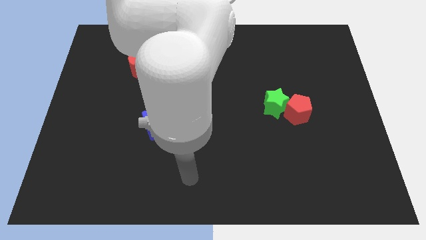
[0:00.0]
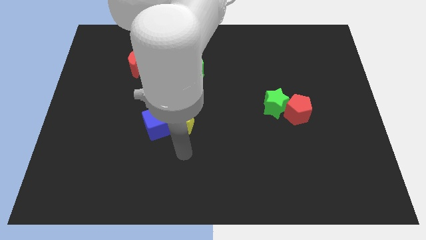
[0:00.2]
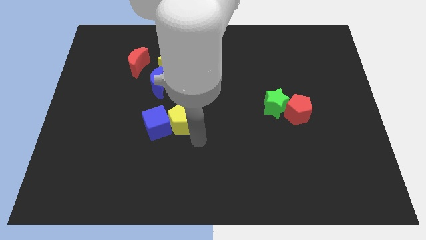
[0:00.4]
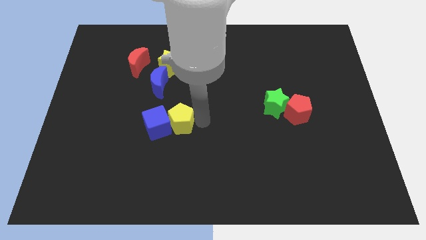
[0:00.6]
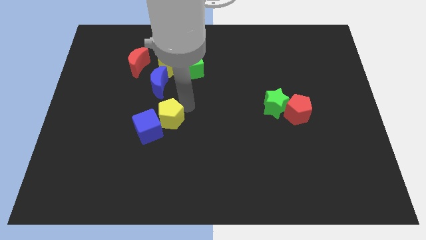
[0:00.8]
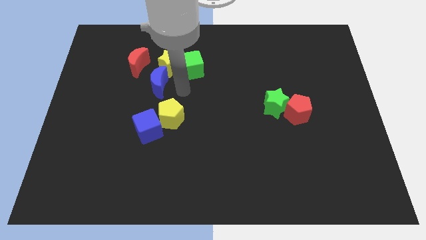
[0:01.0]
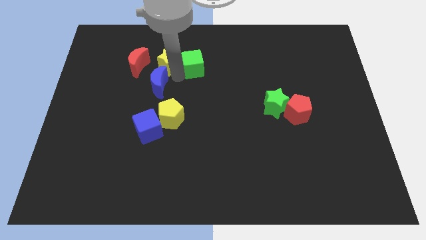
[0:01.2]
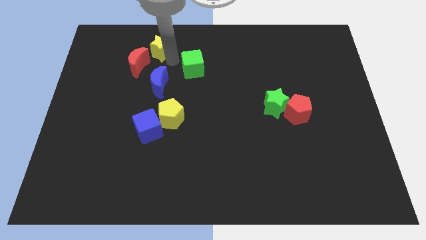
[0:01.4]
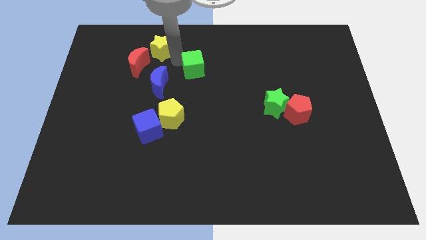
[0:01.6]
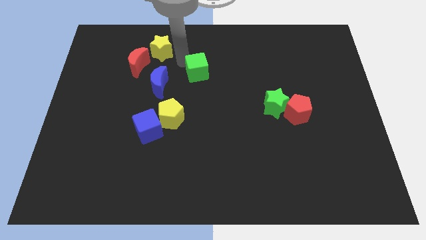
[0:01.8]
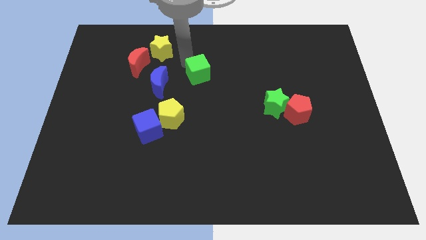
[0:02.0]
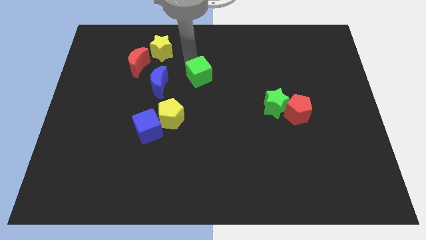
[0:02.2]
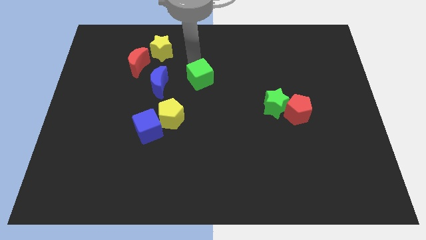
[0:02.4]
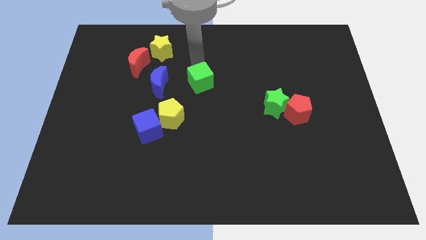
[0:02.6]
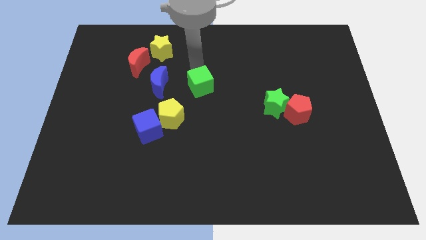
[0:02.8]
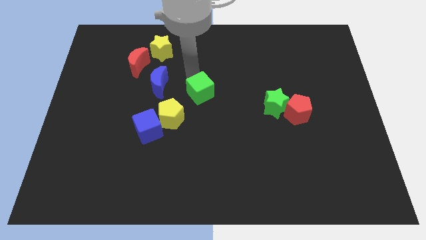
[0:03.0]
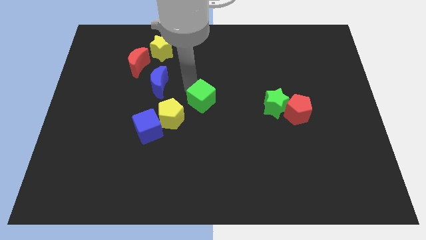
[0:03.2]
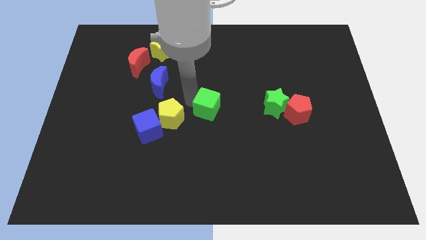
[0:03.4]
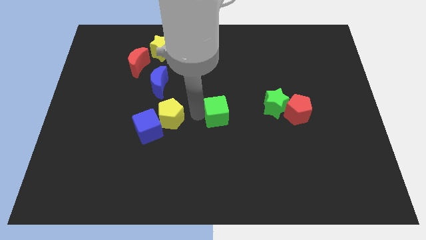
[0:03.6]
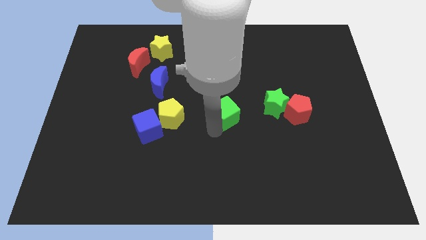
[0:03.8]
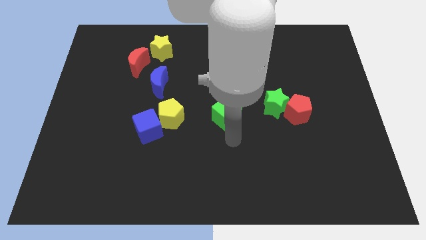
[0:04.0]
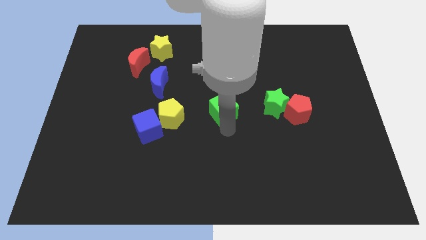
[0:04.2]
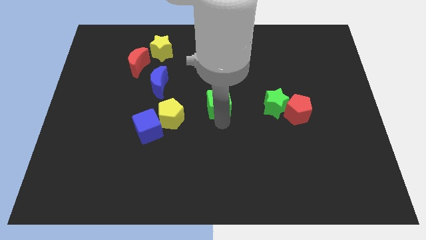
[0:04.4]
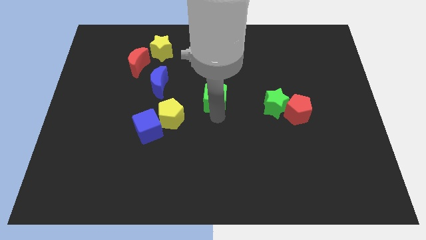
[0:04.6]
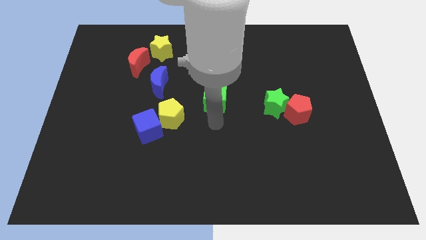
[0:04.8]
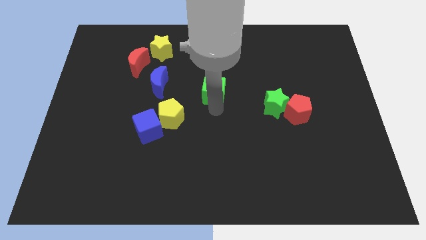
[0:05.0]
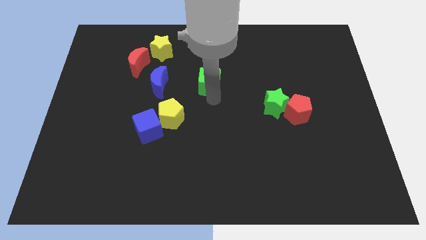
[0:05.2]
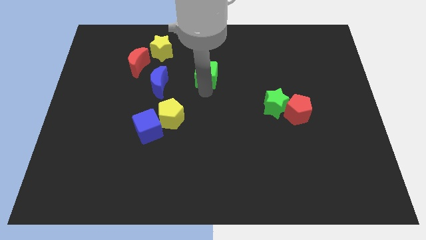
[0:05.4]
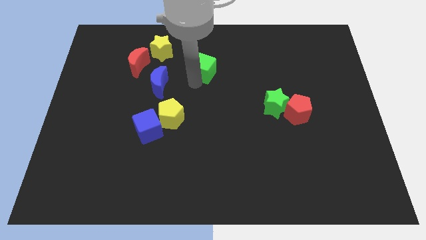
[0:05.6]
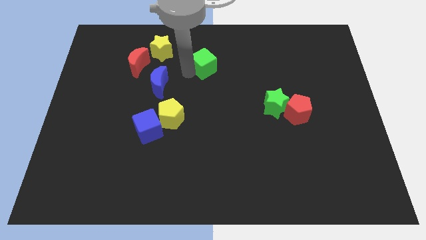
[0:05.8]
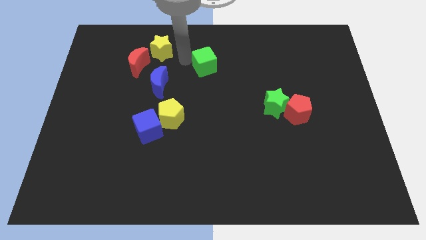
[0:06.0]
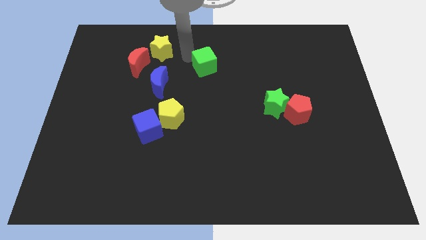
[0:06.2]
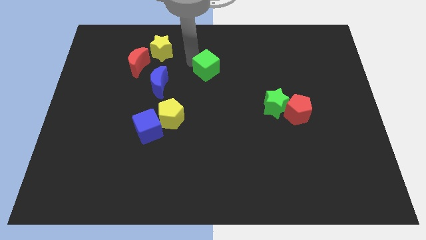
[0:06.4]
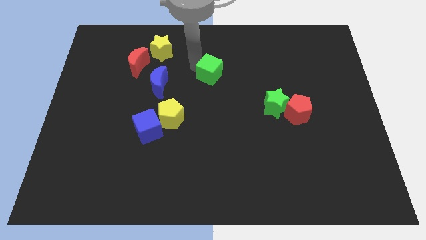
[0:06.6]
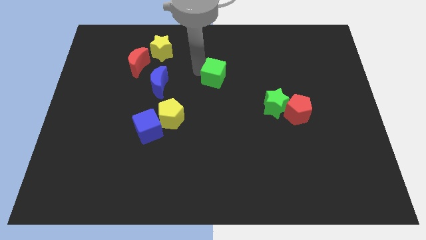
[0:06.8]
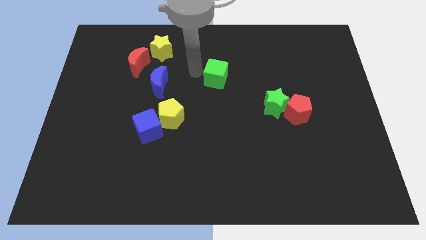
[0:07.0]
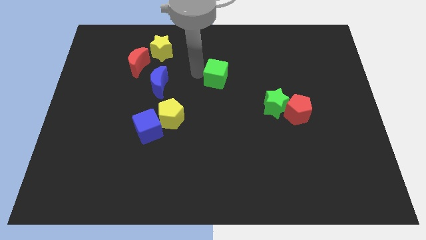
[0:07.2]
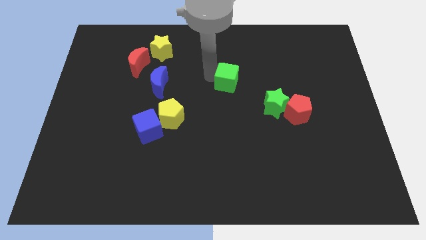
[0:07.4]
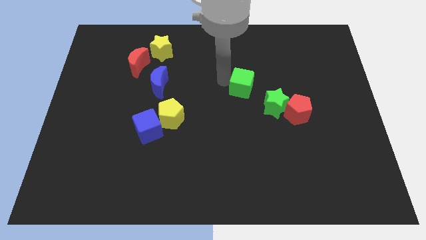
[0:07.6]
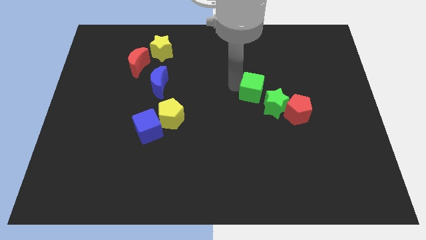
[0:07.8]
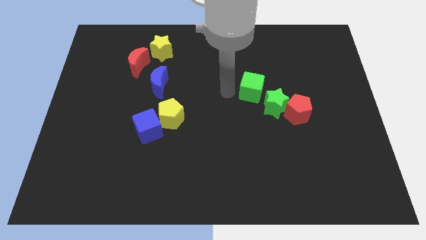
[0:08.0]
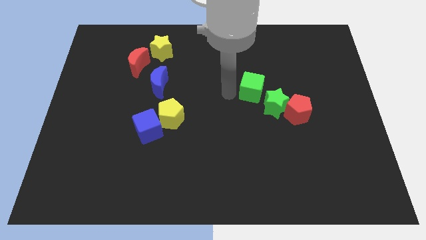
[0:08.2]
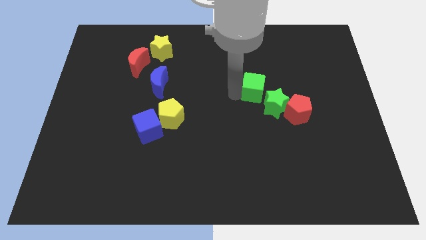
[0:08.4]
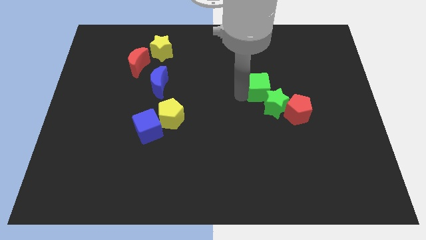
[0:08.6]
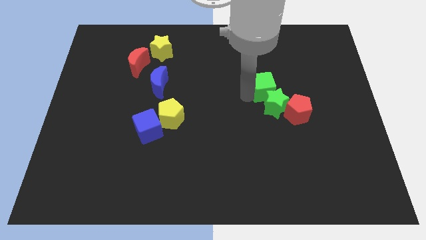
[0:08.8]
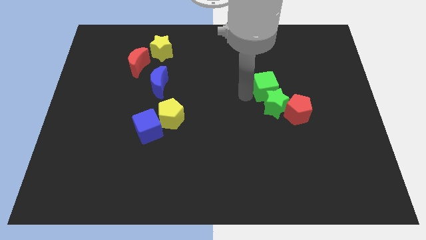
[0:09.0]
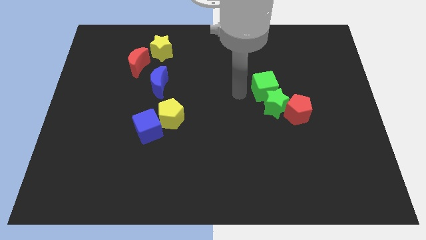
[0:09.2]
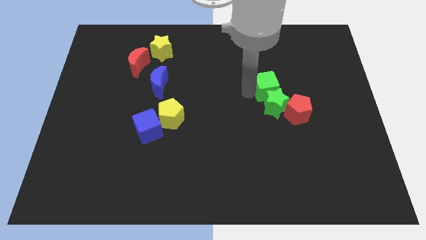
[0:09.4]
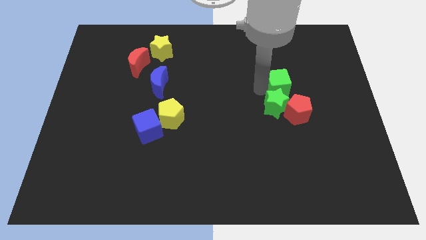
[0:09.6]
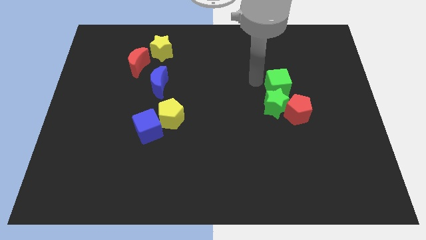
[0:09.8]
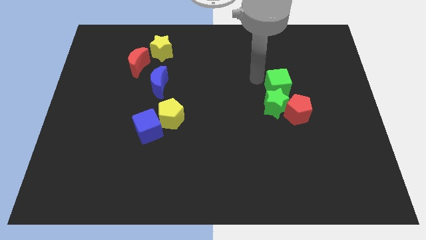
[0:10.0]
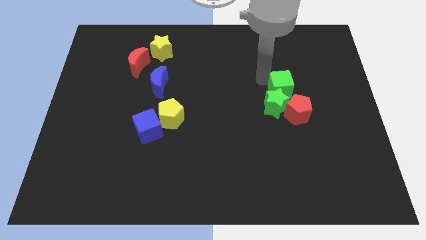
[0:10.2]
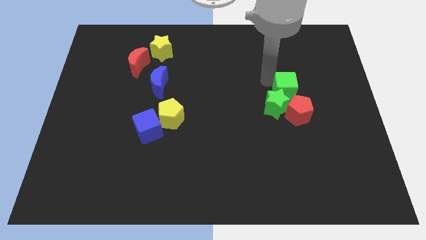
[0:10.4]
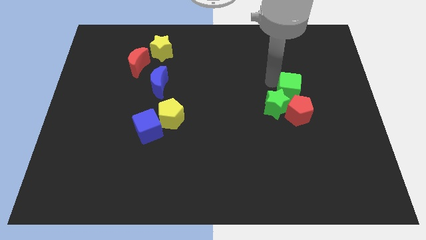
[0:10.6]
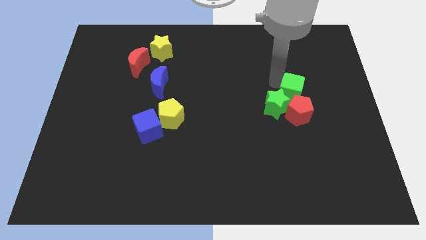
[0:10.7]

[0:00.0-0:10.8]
push the green cube just right of the green star

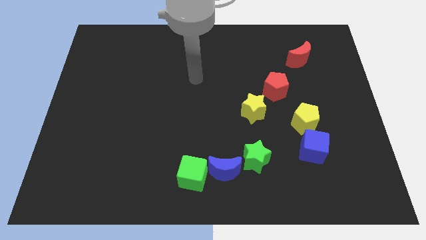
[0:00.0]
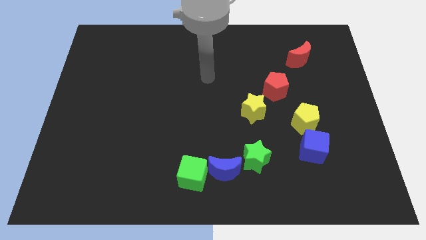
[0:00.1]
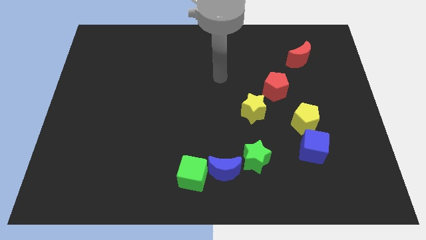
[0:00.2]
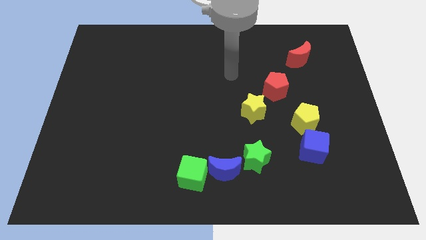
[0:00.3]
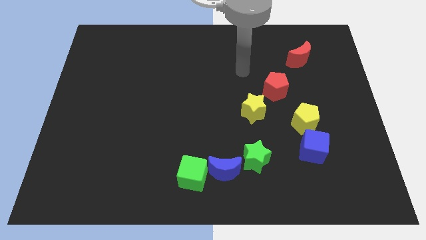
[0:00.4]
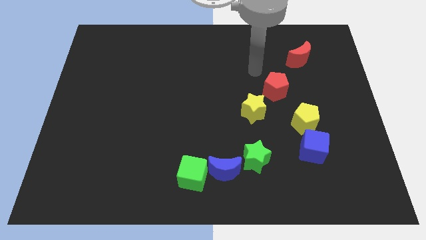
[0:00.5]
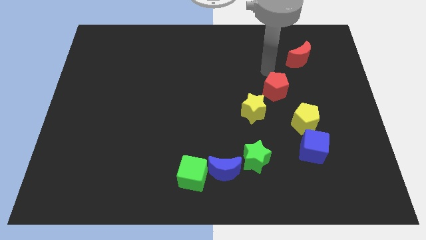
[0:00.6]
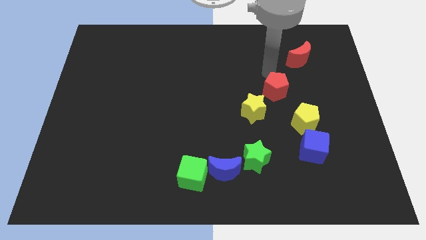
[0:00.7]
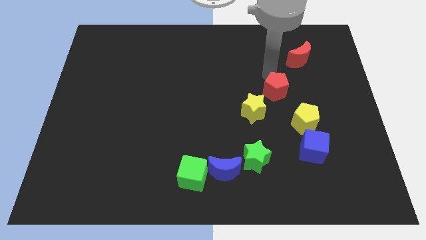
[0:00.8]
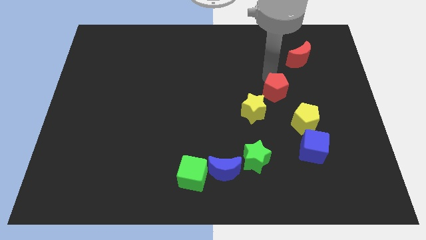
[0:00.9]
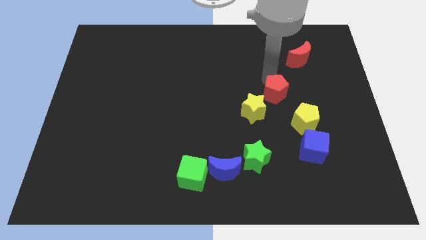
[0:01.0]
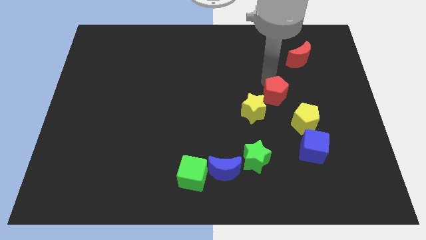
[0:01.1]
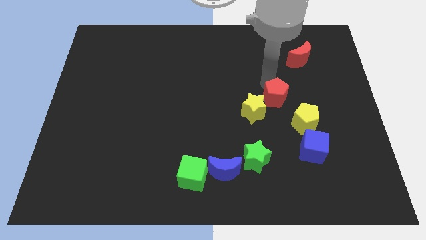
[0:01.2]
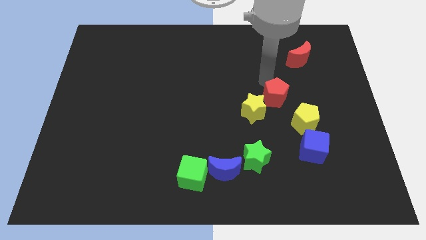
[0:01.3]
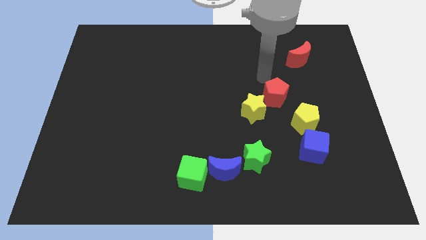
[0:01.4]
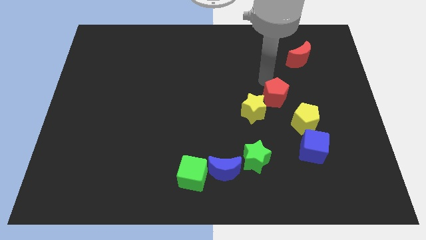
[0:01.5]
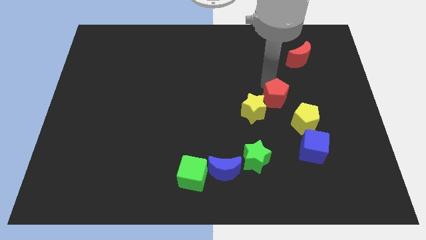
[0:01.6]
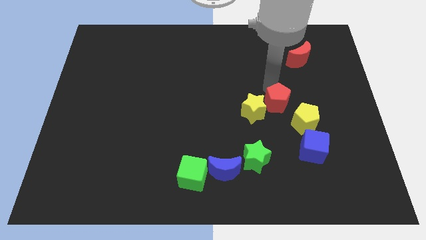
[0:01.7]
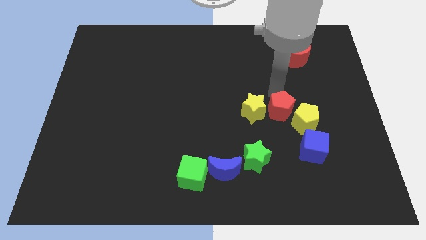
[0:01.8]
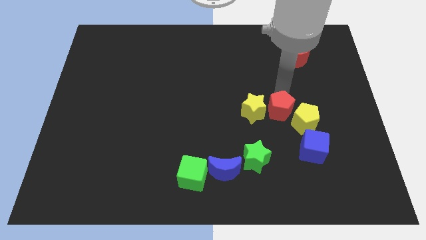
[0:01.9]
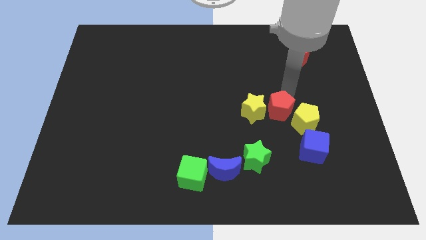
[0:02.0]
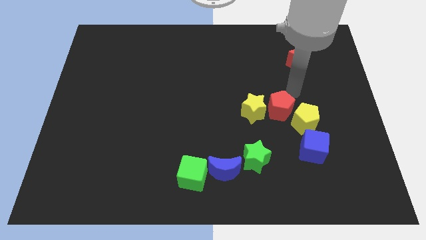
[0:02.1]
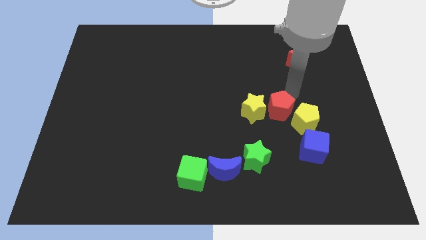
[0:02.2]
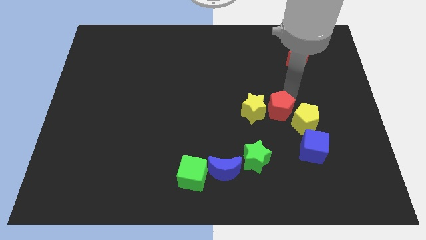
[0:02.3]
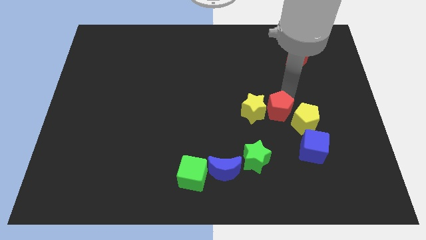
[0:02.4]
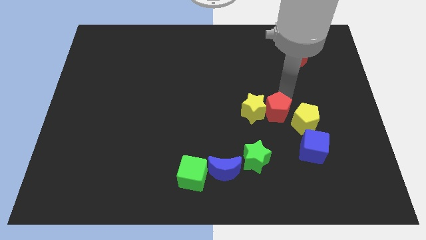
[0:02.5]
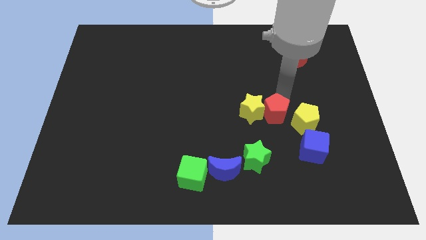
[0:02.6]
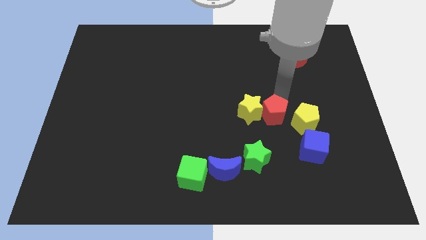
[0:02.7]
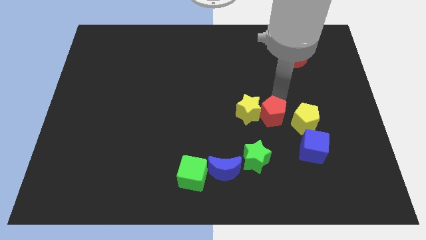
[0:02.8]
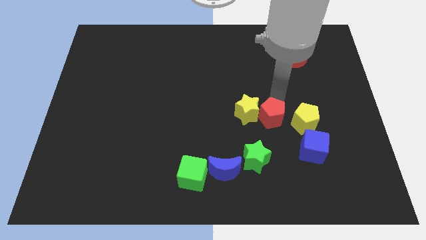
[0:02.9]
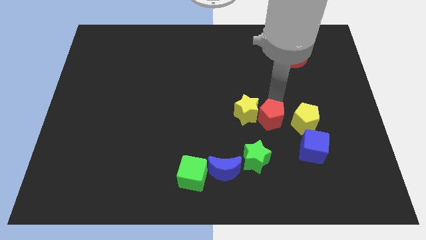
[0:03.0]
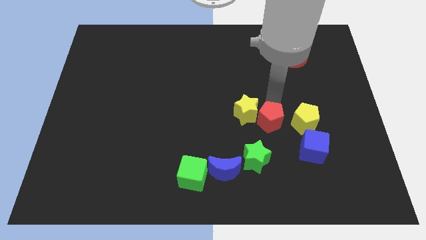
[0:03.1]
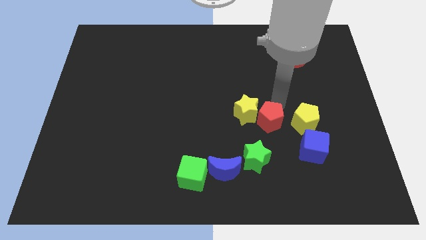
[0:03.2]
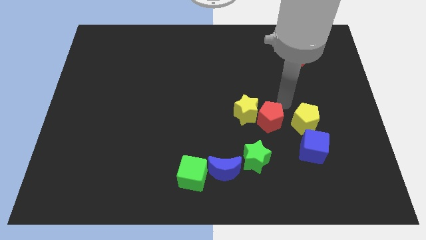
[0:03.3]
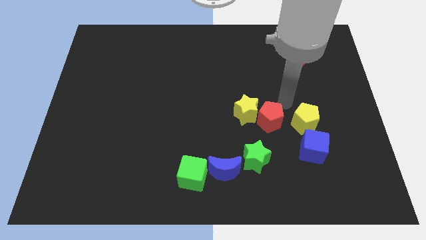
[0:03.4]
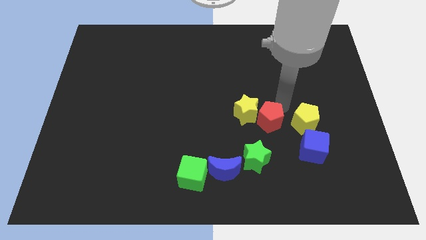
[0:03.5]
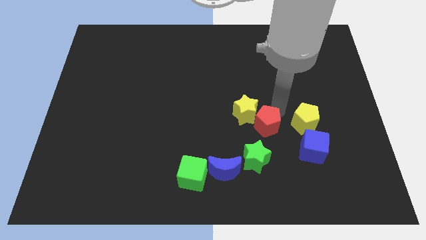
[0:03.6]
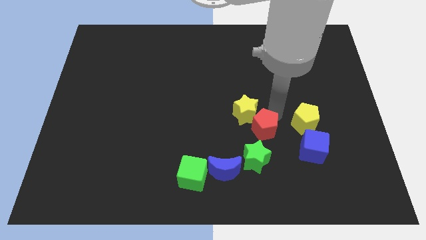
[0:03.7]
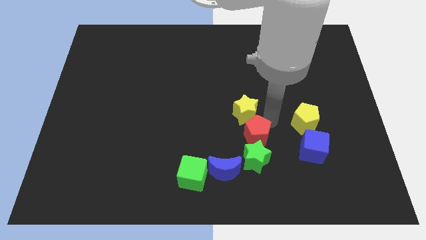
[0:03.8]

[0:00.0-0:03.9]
move the red pentagon to the left side of the blue cube
